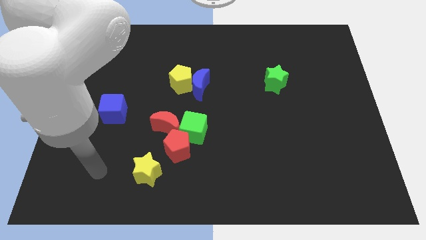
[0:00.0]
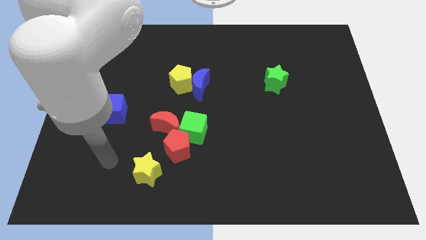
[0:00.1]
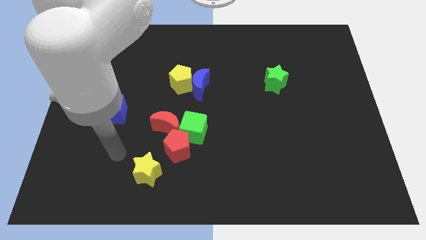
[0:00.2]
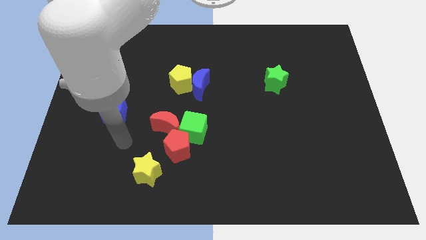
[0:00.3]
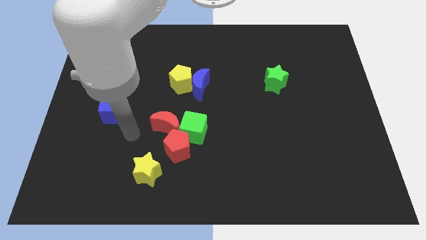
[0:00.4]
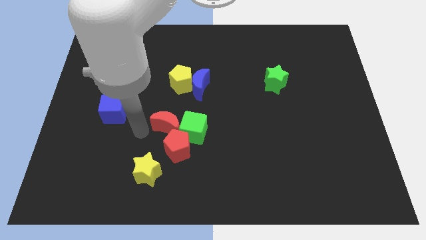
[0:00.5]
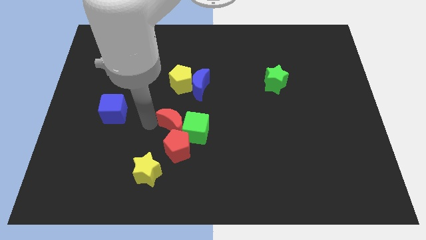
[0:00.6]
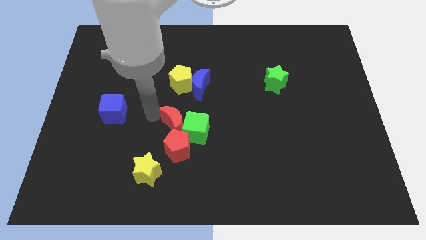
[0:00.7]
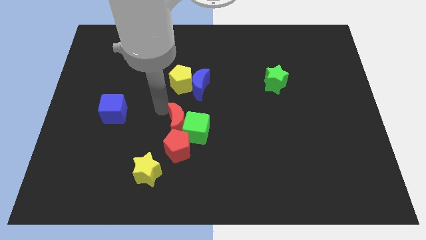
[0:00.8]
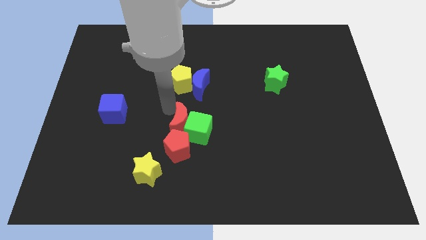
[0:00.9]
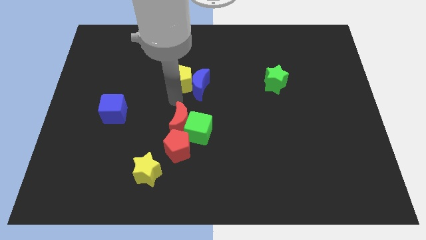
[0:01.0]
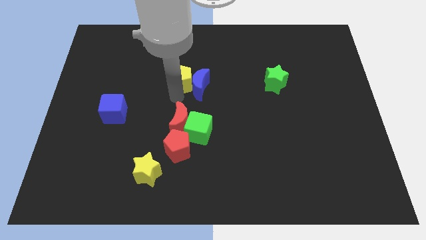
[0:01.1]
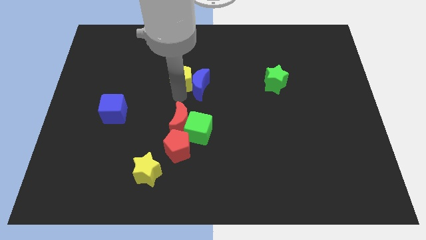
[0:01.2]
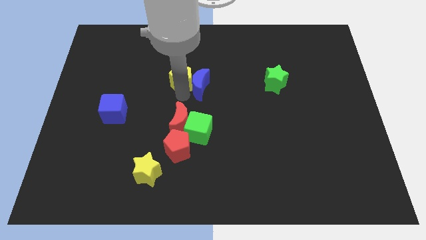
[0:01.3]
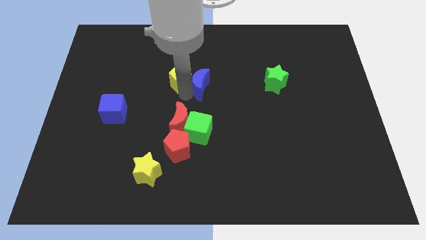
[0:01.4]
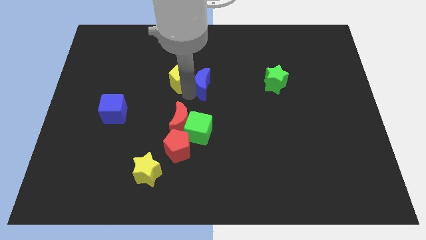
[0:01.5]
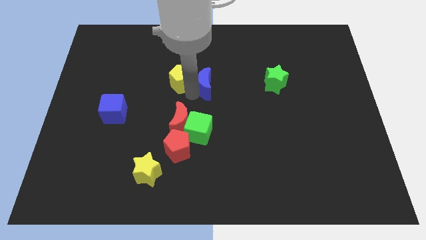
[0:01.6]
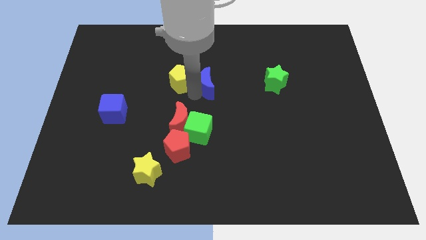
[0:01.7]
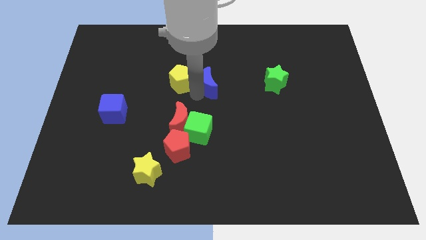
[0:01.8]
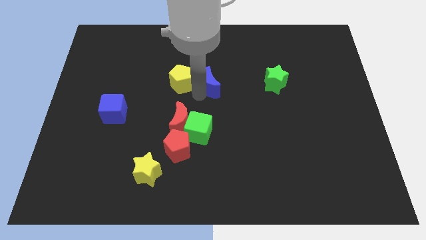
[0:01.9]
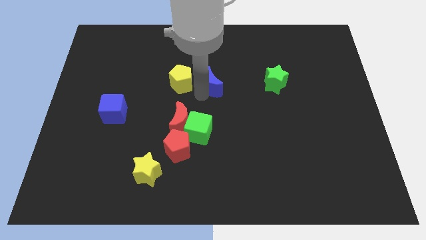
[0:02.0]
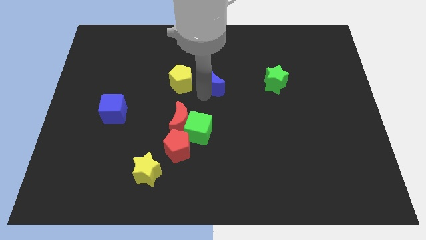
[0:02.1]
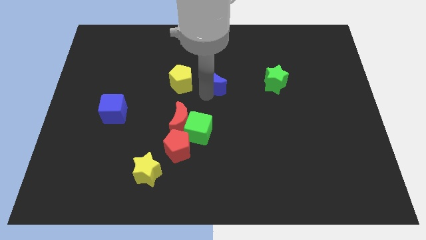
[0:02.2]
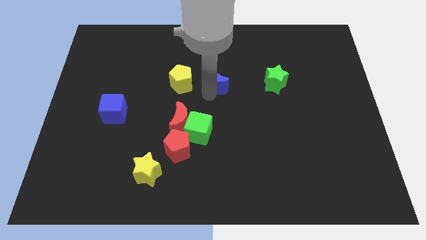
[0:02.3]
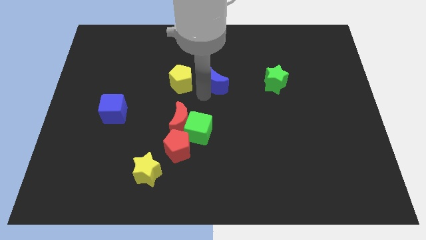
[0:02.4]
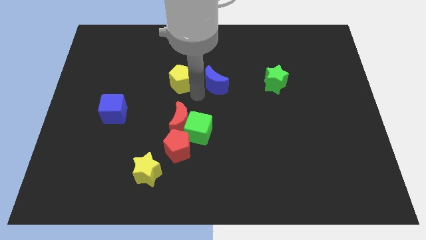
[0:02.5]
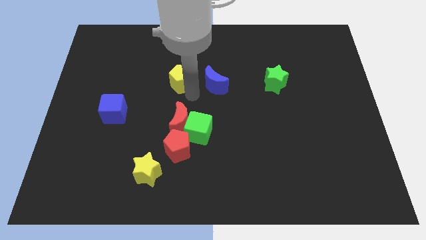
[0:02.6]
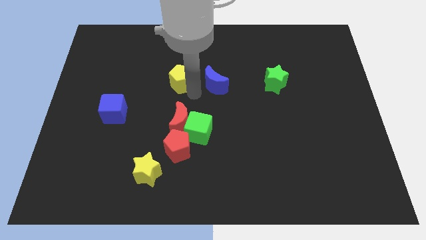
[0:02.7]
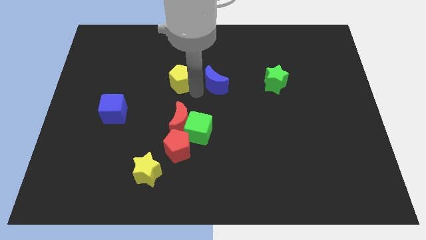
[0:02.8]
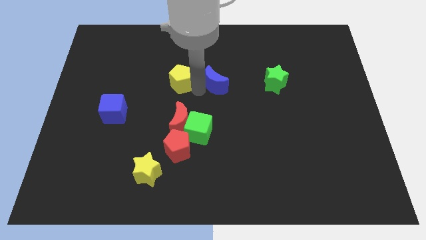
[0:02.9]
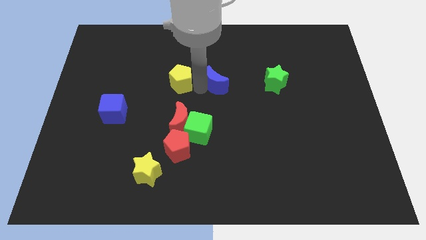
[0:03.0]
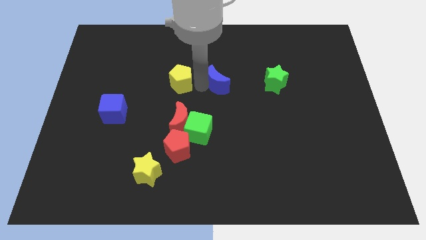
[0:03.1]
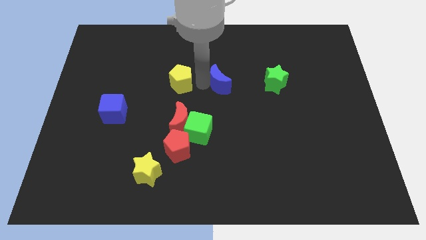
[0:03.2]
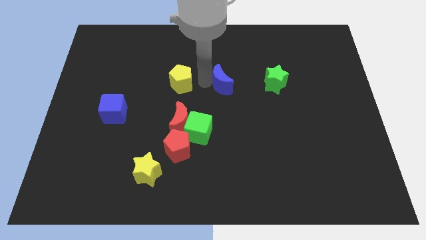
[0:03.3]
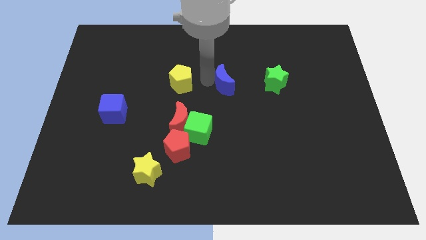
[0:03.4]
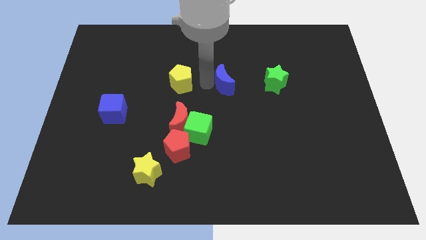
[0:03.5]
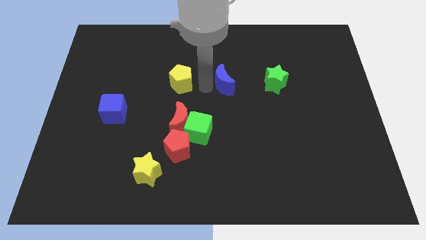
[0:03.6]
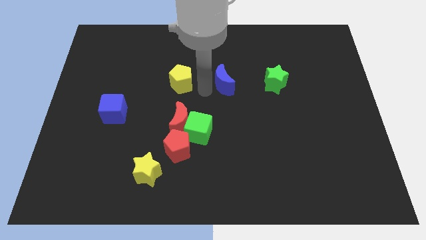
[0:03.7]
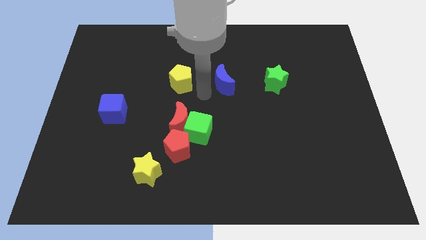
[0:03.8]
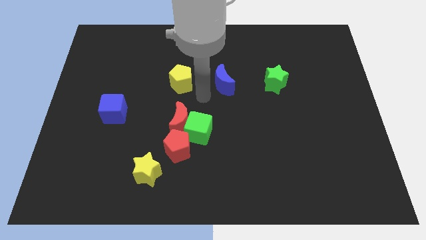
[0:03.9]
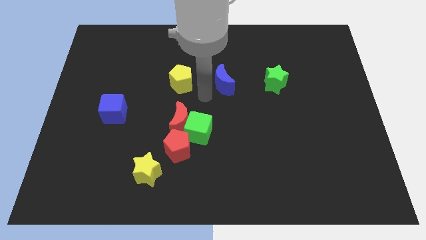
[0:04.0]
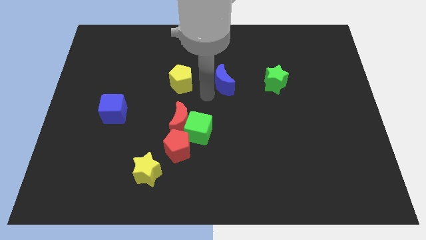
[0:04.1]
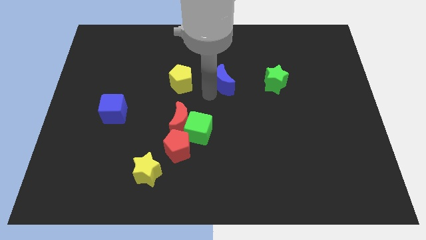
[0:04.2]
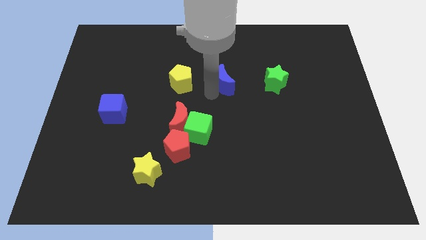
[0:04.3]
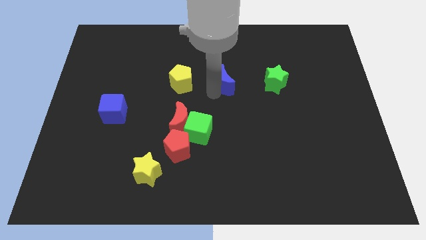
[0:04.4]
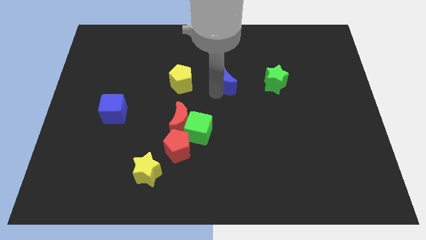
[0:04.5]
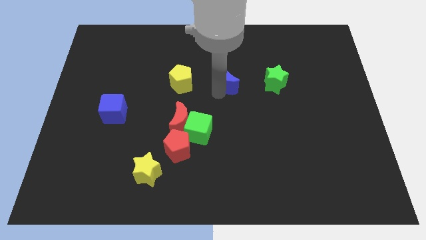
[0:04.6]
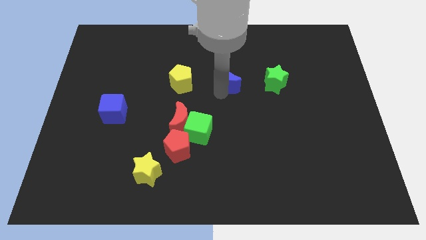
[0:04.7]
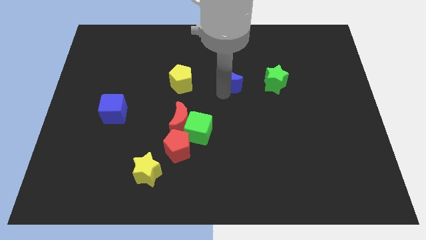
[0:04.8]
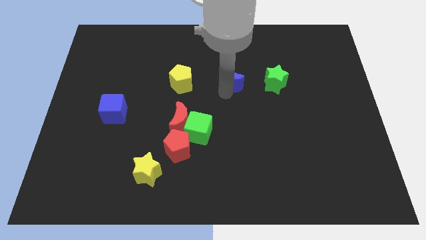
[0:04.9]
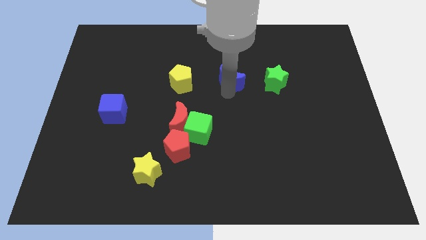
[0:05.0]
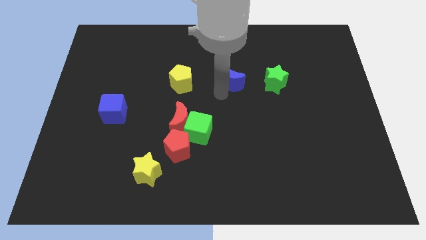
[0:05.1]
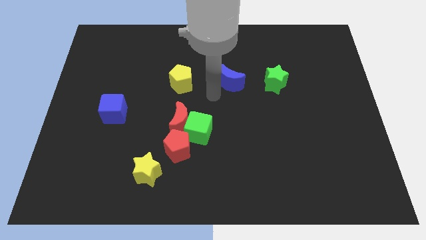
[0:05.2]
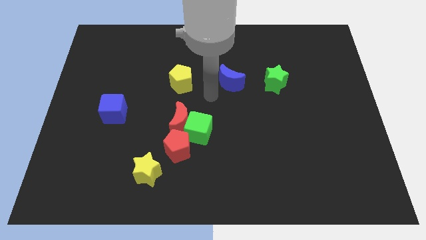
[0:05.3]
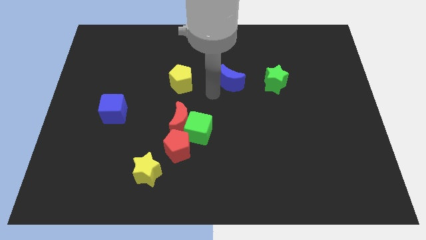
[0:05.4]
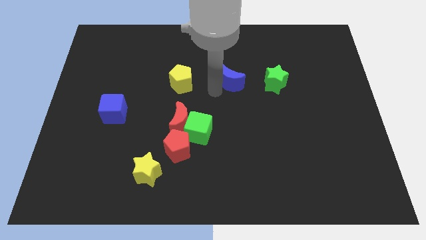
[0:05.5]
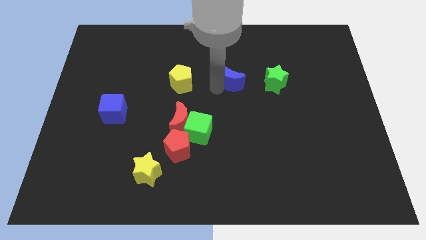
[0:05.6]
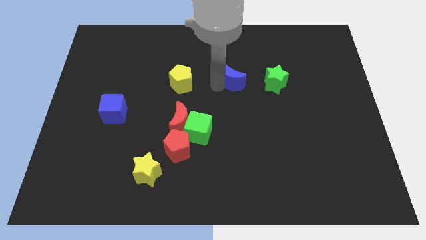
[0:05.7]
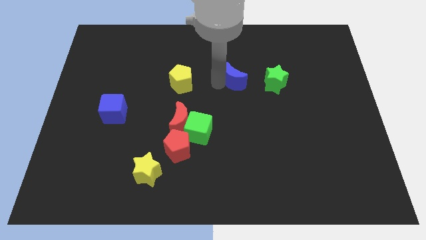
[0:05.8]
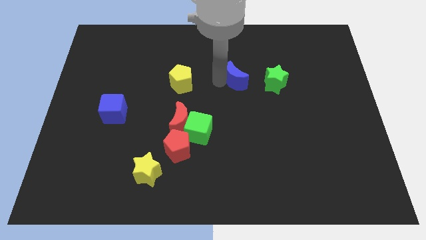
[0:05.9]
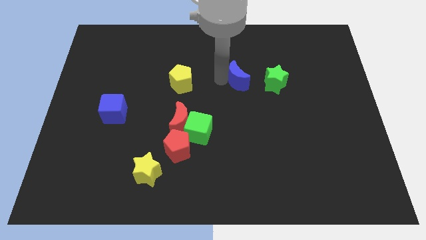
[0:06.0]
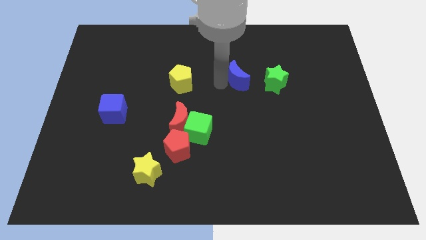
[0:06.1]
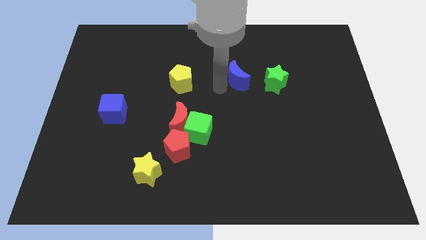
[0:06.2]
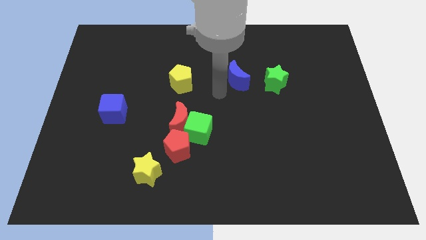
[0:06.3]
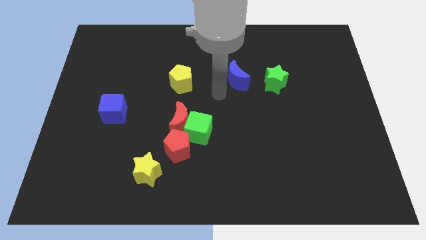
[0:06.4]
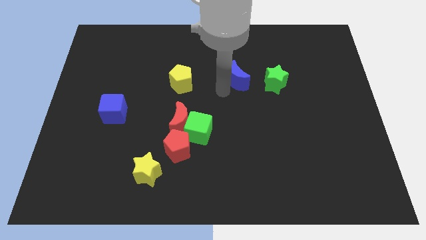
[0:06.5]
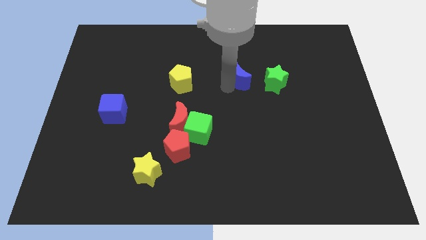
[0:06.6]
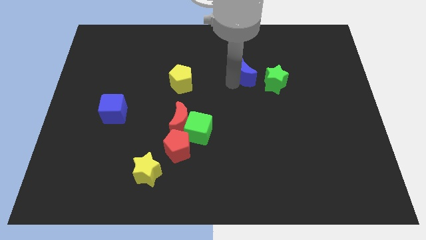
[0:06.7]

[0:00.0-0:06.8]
slide the blue moon to the top left side of the green star

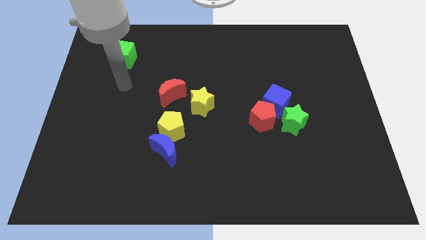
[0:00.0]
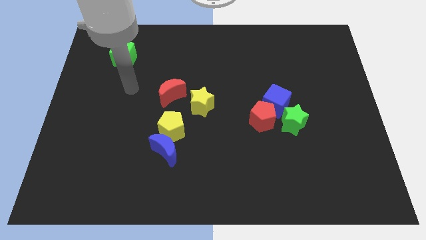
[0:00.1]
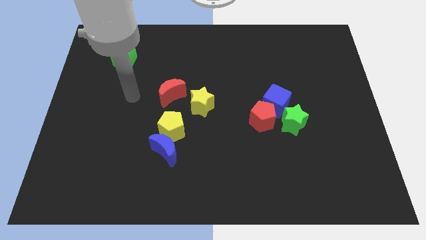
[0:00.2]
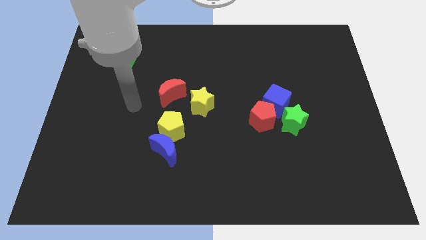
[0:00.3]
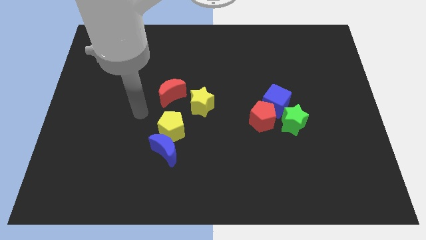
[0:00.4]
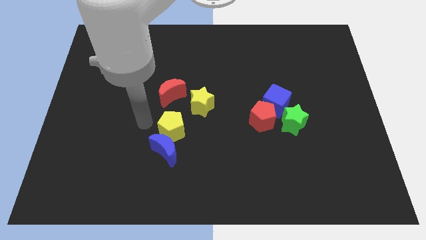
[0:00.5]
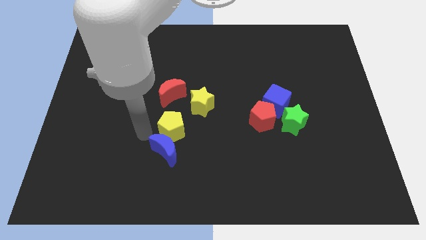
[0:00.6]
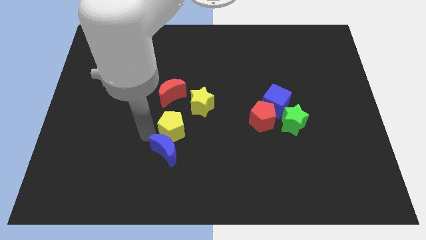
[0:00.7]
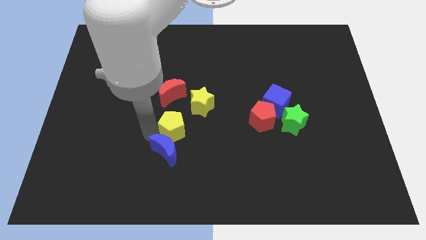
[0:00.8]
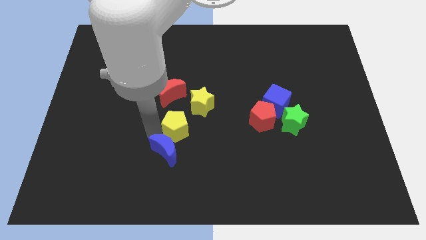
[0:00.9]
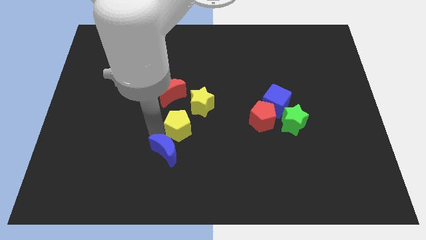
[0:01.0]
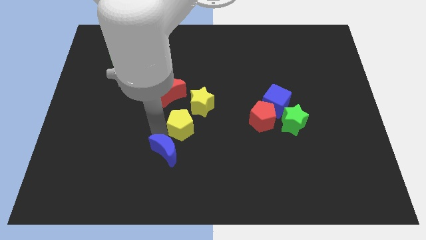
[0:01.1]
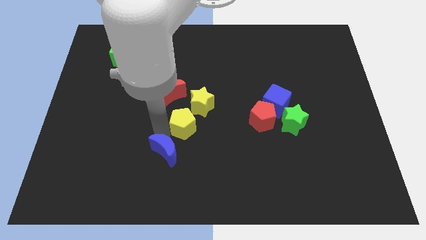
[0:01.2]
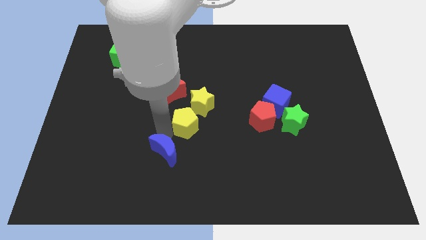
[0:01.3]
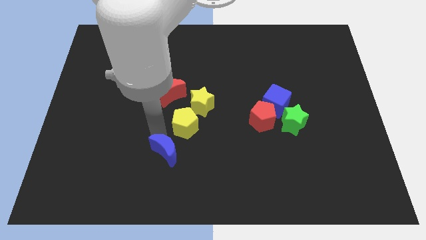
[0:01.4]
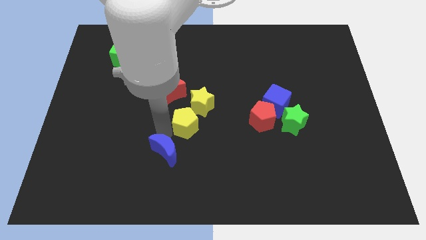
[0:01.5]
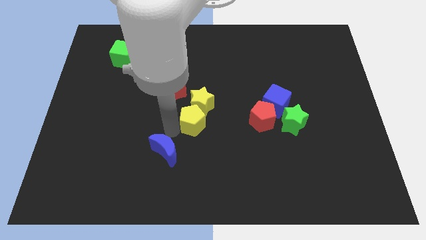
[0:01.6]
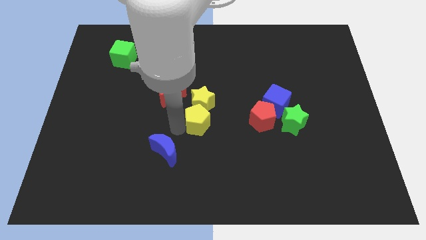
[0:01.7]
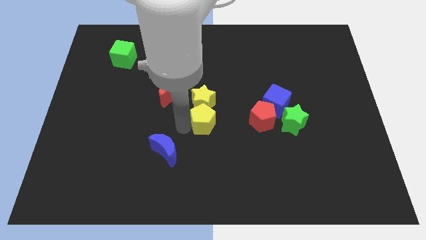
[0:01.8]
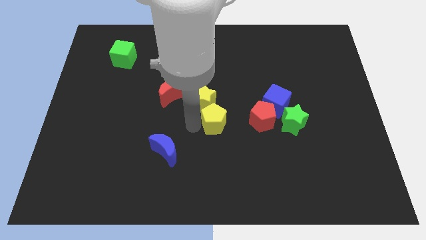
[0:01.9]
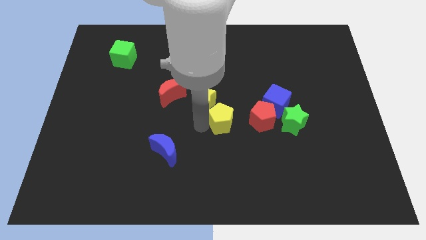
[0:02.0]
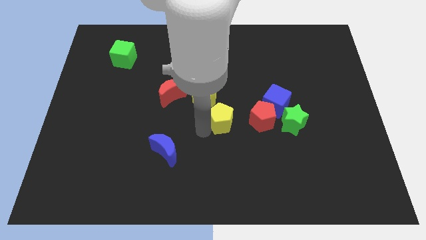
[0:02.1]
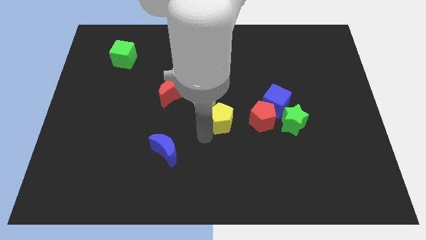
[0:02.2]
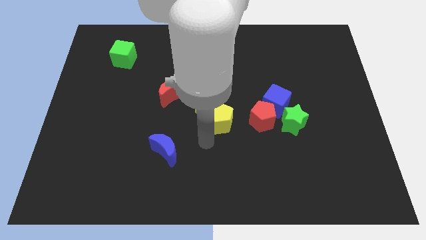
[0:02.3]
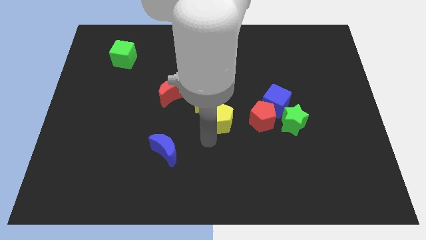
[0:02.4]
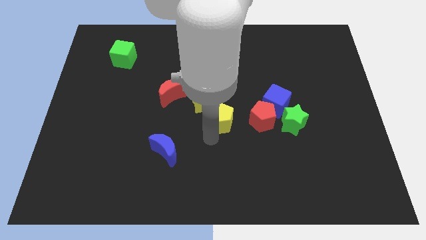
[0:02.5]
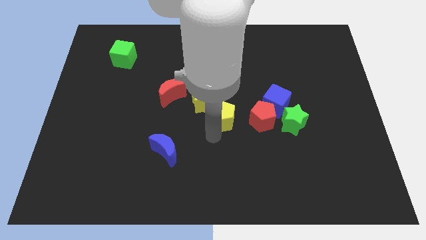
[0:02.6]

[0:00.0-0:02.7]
slide the yellow pentagon to the left side of the blue cube
